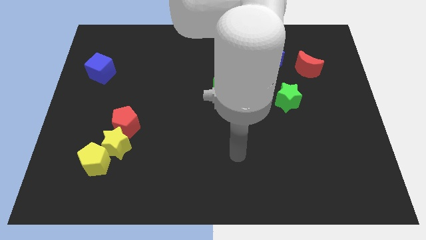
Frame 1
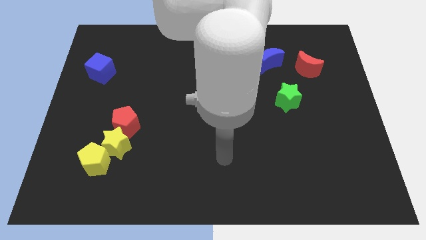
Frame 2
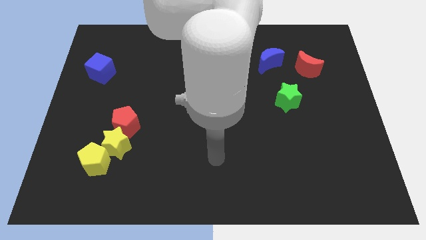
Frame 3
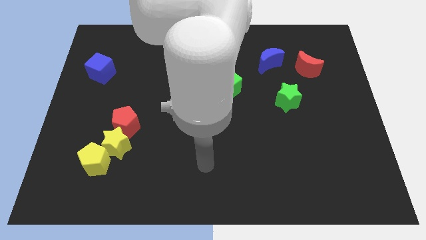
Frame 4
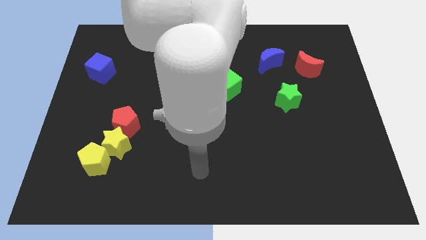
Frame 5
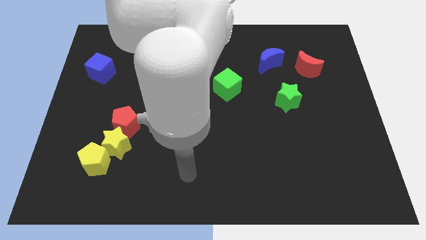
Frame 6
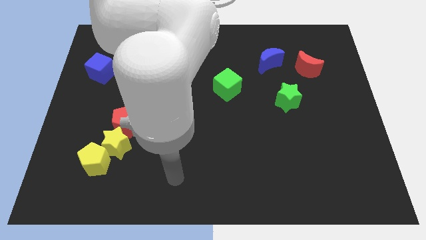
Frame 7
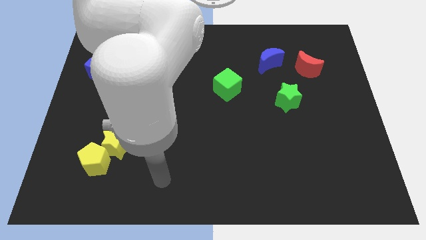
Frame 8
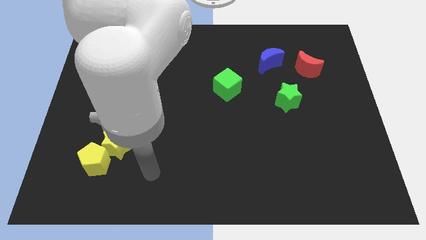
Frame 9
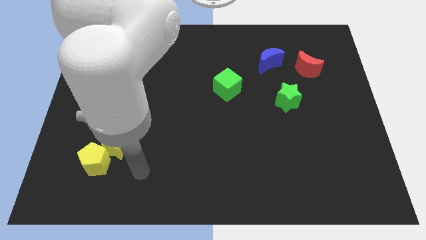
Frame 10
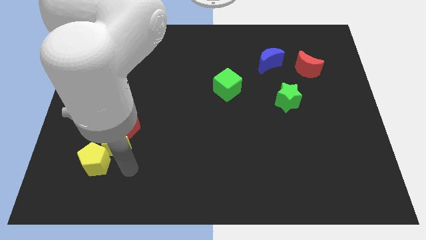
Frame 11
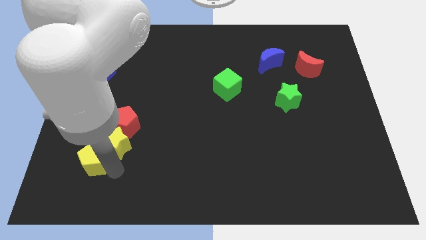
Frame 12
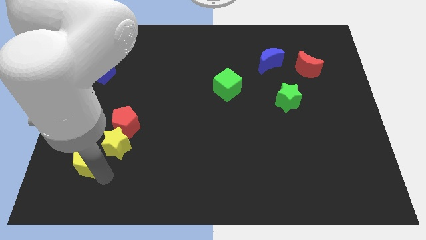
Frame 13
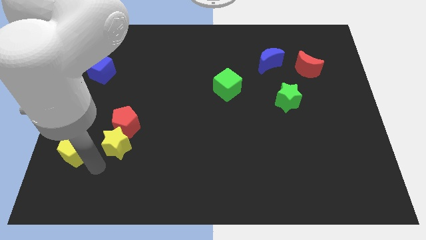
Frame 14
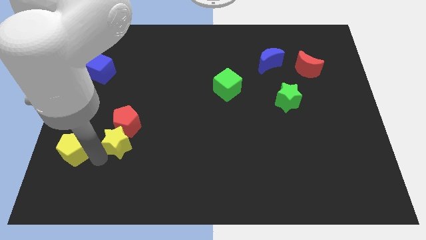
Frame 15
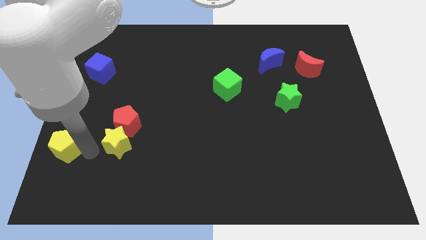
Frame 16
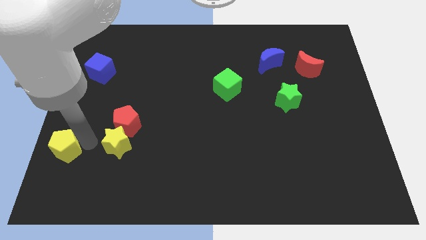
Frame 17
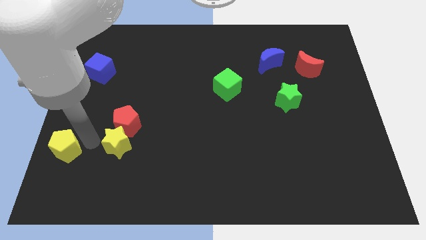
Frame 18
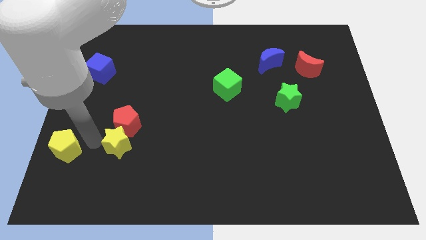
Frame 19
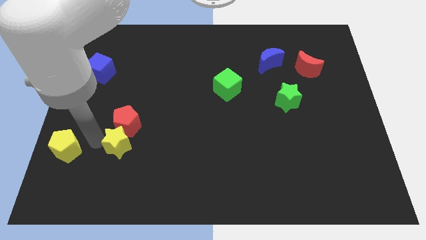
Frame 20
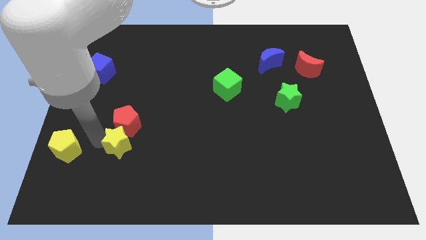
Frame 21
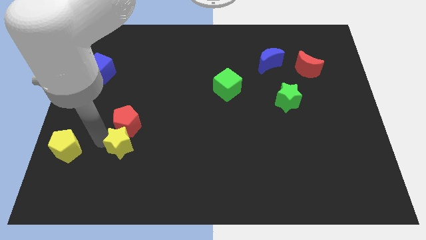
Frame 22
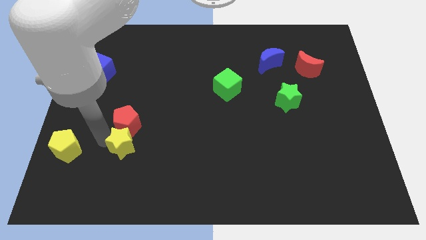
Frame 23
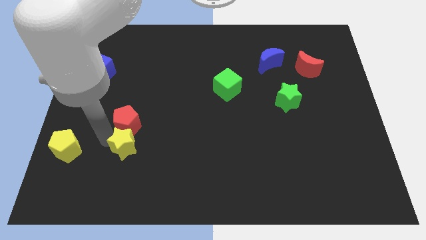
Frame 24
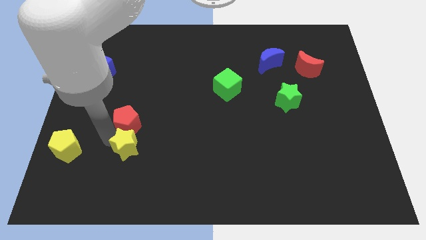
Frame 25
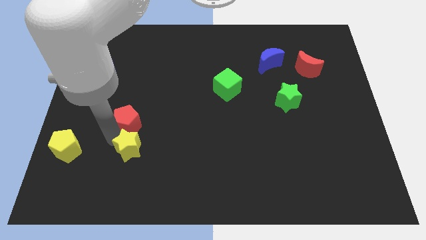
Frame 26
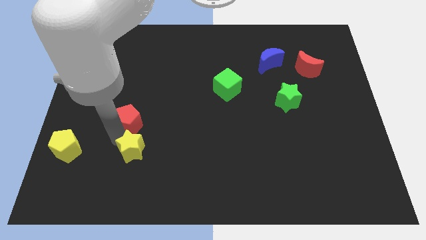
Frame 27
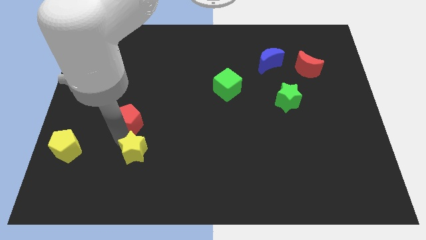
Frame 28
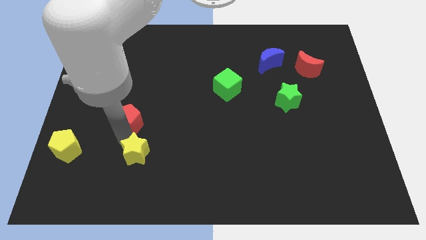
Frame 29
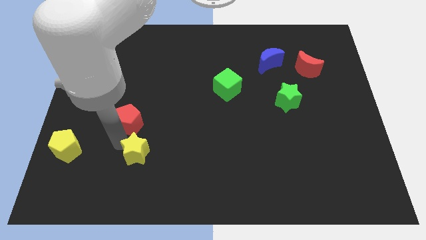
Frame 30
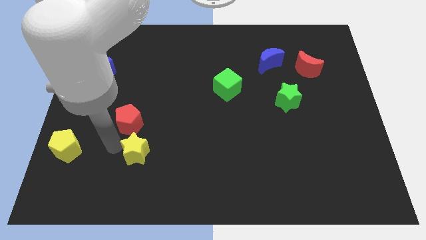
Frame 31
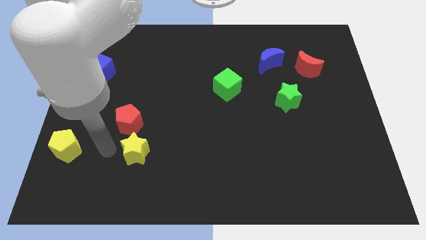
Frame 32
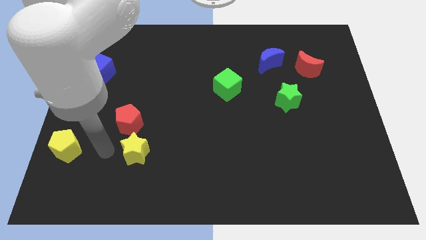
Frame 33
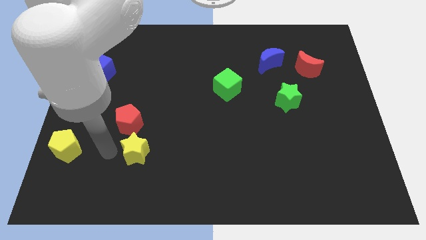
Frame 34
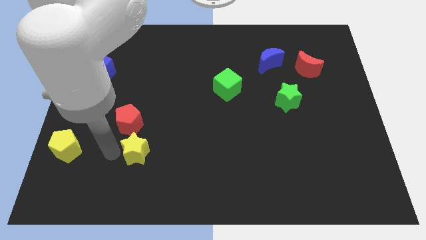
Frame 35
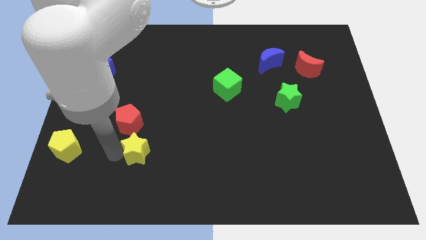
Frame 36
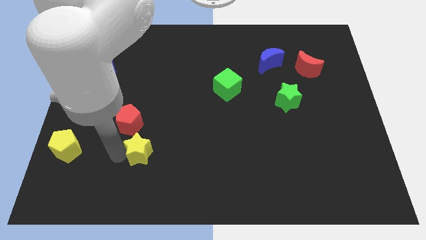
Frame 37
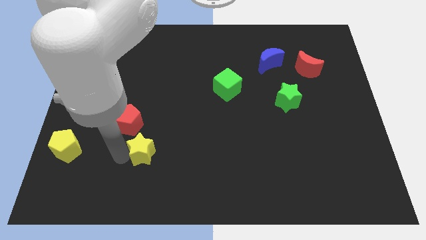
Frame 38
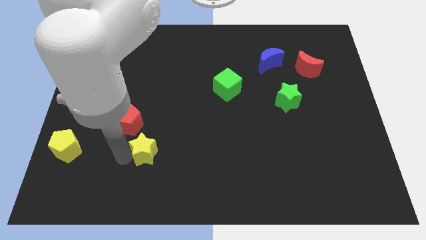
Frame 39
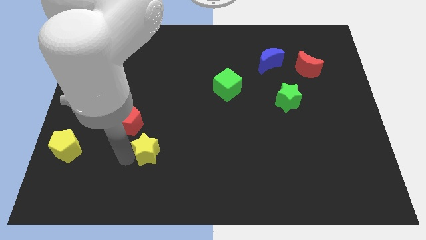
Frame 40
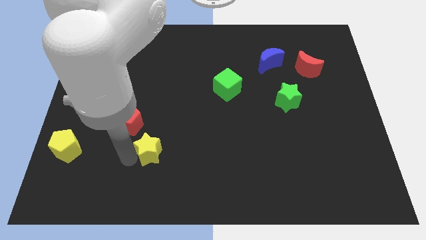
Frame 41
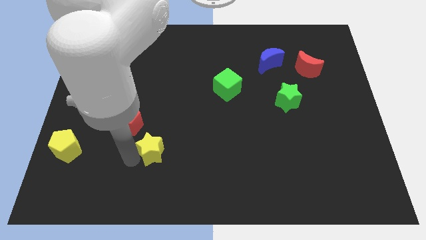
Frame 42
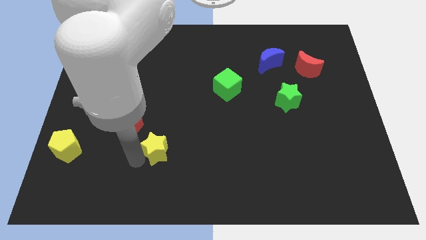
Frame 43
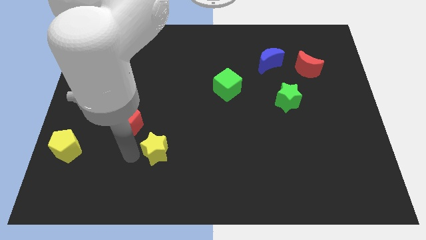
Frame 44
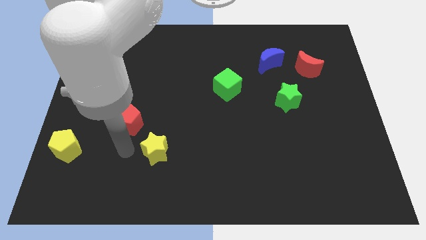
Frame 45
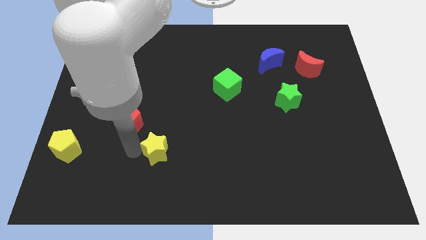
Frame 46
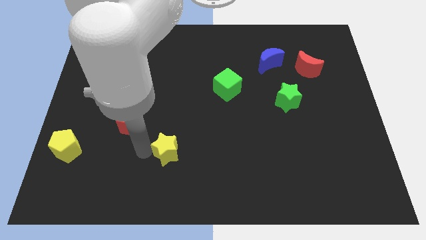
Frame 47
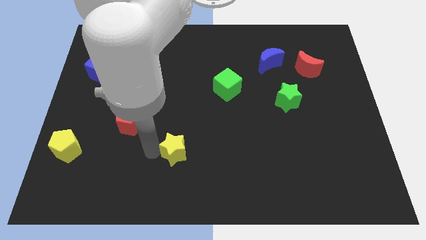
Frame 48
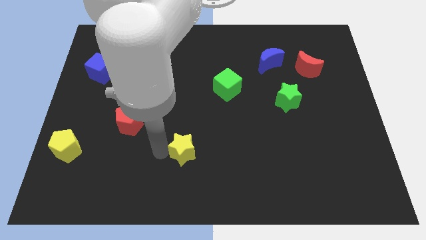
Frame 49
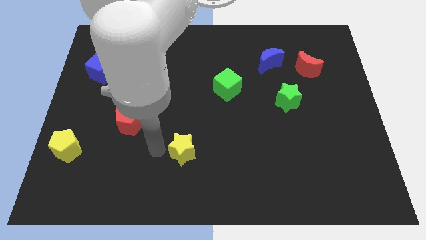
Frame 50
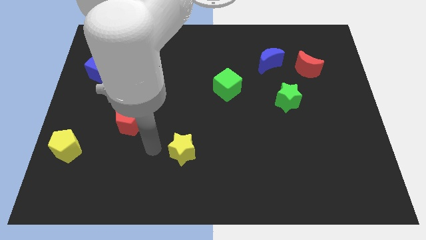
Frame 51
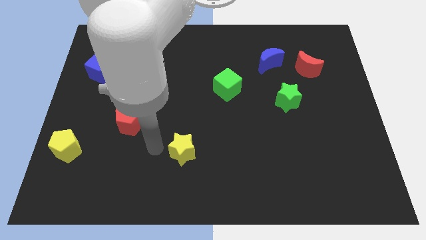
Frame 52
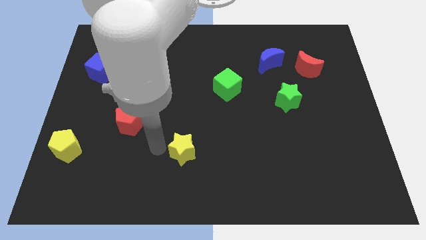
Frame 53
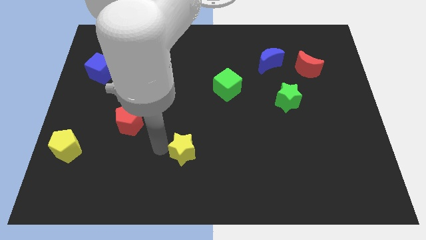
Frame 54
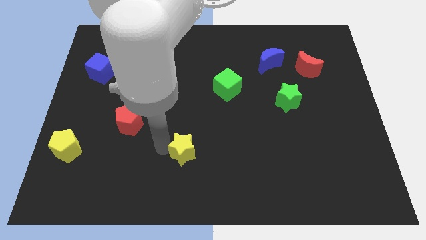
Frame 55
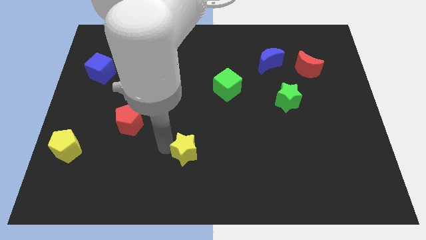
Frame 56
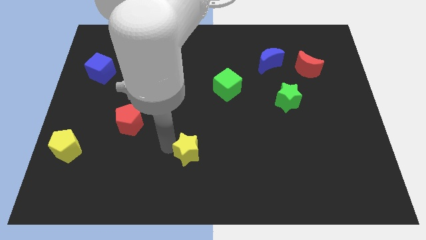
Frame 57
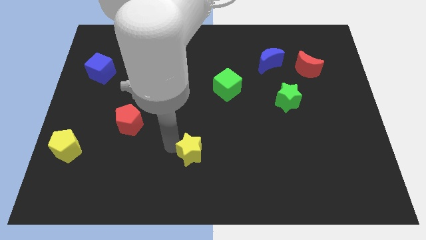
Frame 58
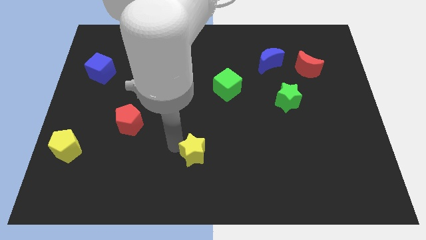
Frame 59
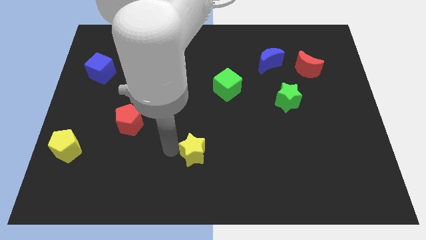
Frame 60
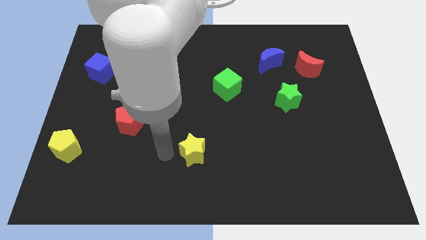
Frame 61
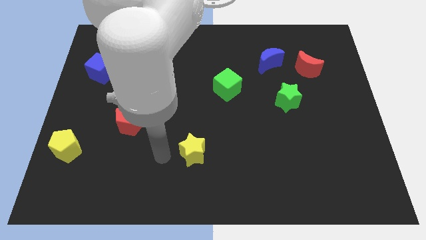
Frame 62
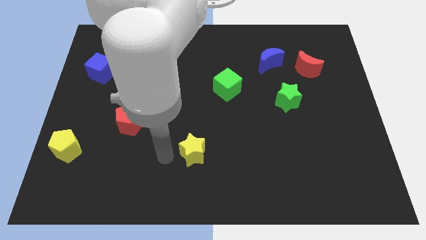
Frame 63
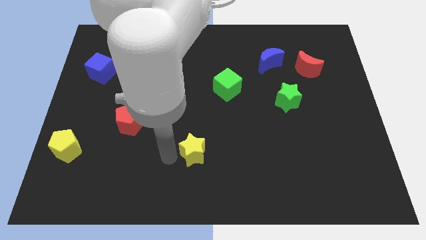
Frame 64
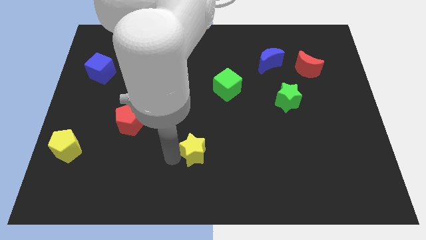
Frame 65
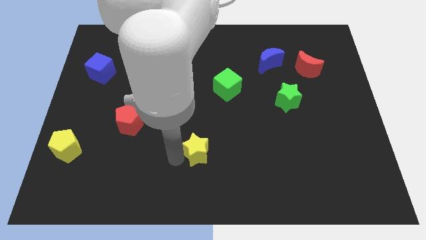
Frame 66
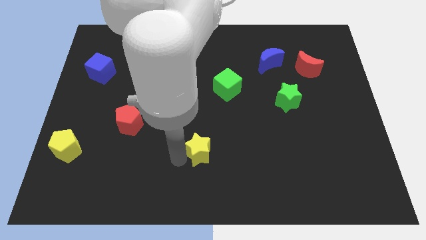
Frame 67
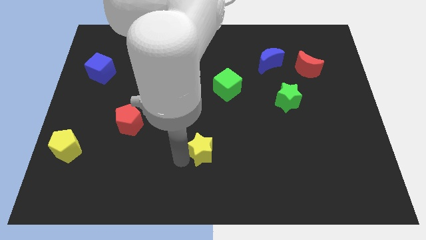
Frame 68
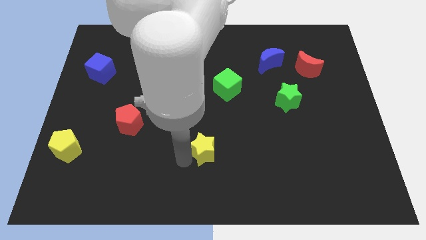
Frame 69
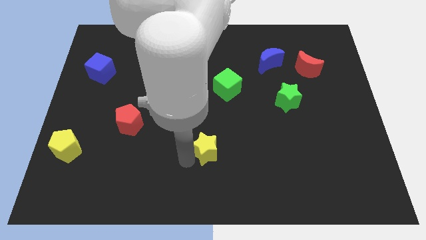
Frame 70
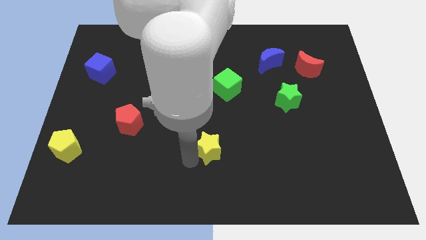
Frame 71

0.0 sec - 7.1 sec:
move the yellow star to the right

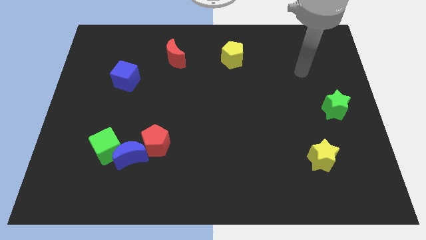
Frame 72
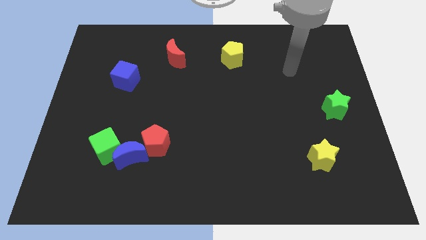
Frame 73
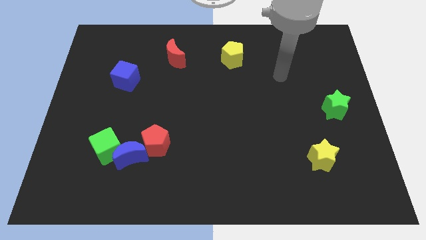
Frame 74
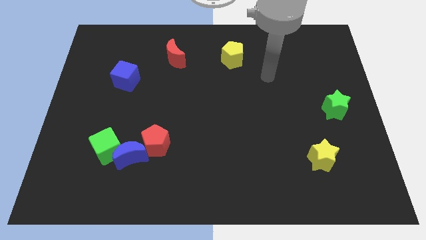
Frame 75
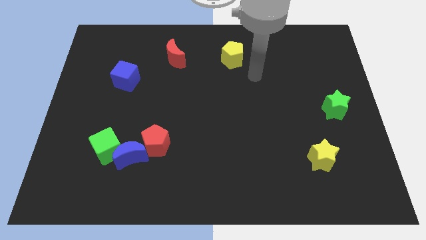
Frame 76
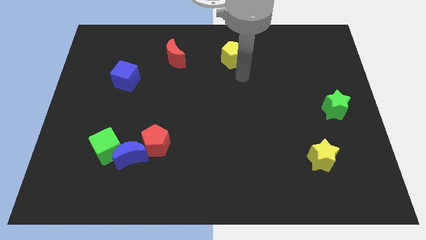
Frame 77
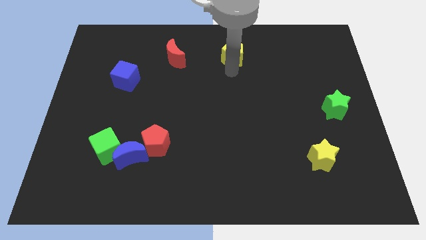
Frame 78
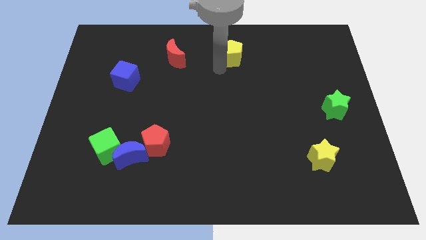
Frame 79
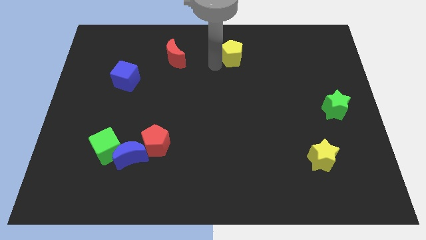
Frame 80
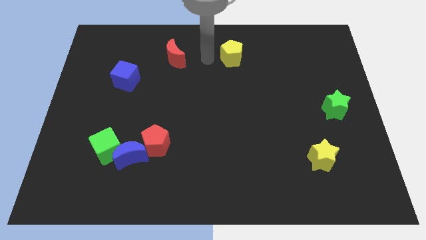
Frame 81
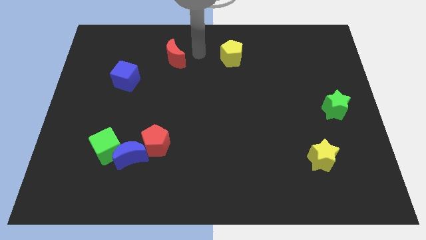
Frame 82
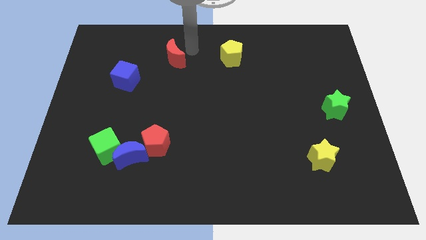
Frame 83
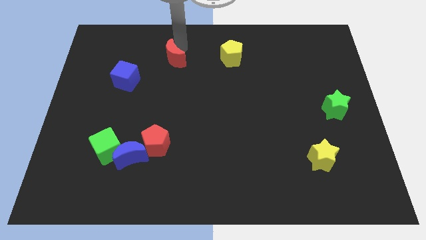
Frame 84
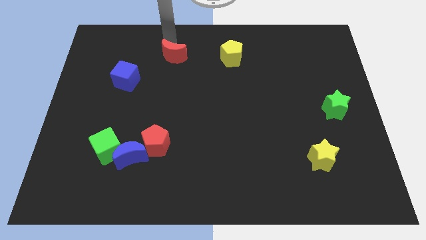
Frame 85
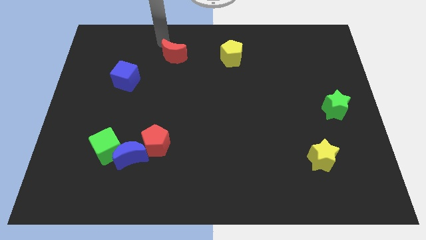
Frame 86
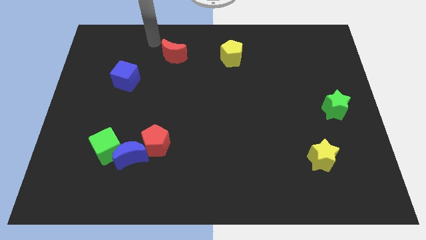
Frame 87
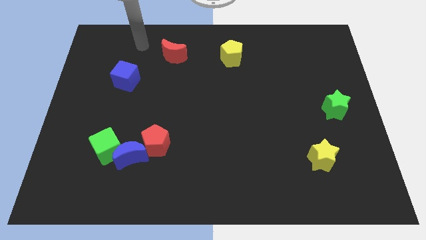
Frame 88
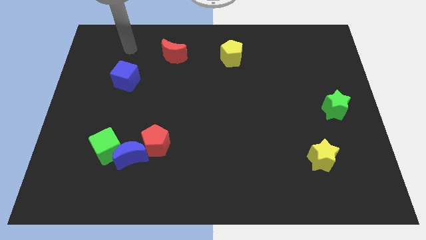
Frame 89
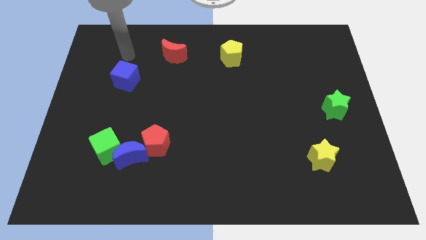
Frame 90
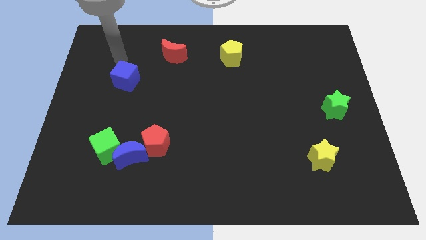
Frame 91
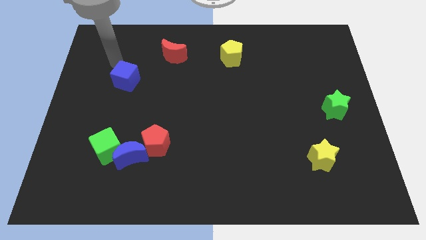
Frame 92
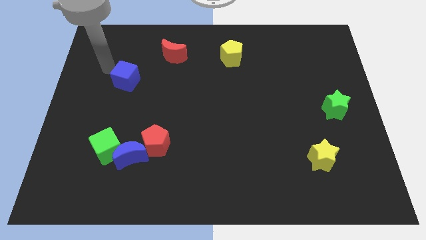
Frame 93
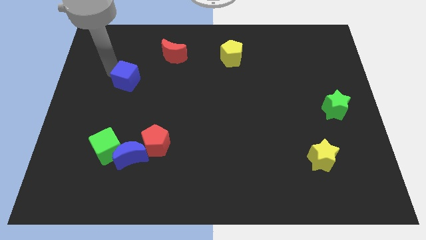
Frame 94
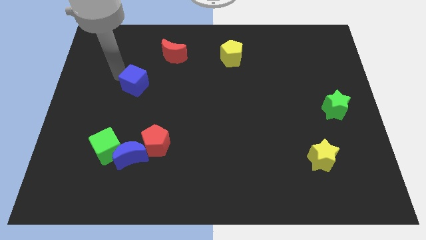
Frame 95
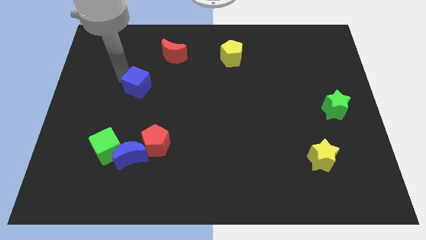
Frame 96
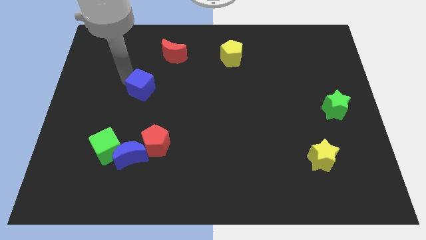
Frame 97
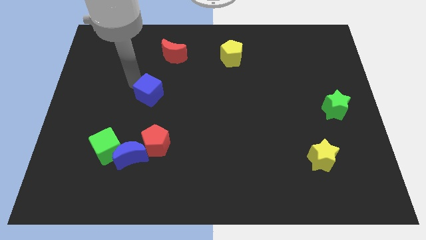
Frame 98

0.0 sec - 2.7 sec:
slightly slide the blue cube down and then right
